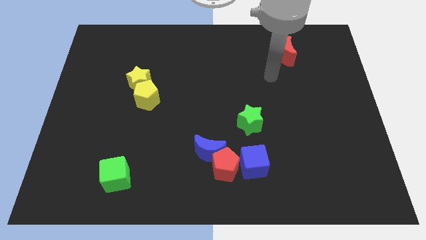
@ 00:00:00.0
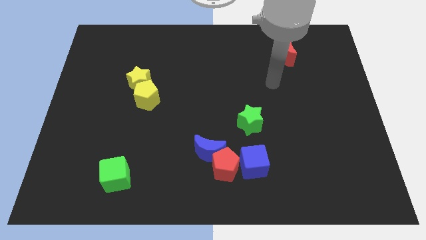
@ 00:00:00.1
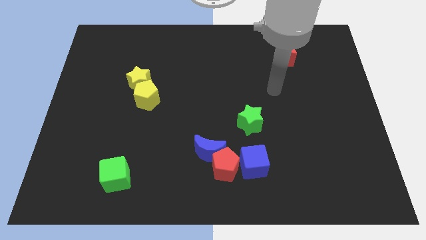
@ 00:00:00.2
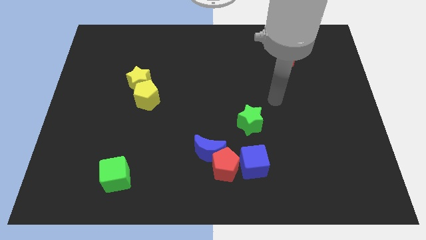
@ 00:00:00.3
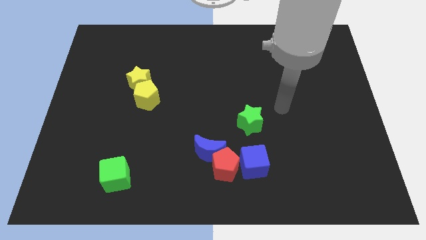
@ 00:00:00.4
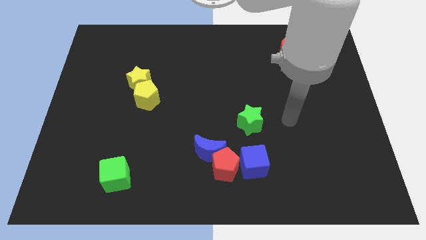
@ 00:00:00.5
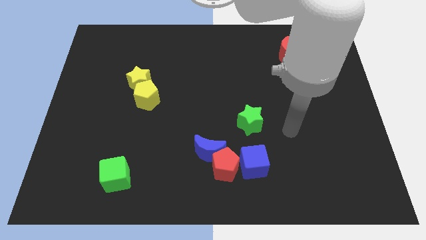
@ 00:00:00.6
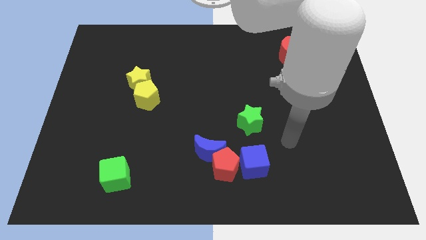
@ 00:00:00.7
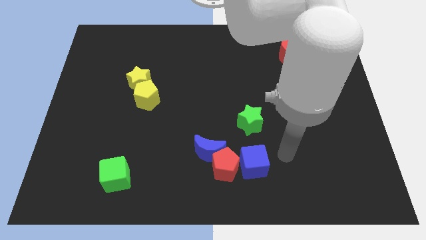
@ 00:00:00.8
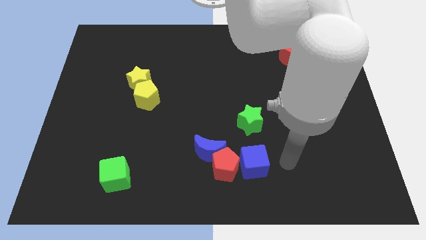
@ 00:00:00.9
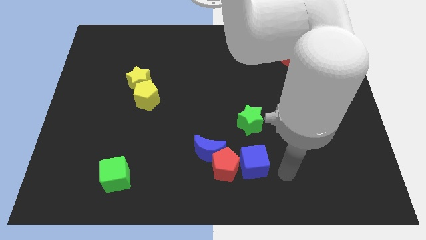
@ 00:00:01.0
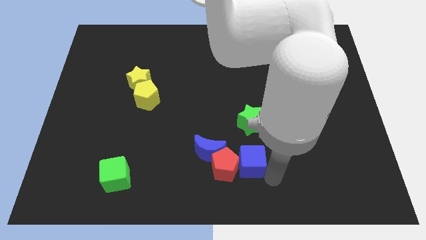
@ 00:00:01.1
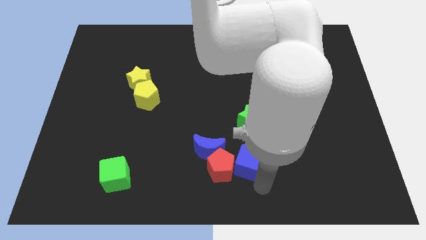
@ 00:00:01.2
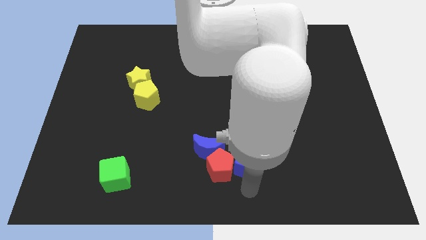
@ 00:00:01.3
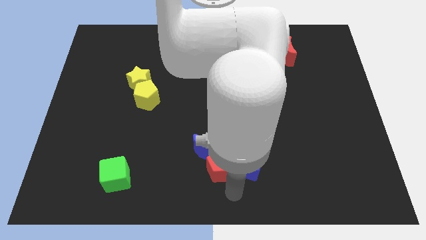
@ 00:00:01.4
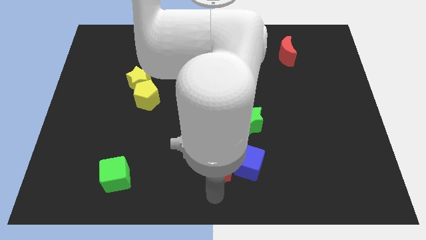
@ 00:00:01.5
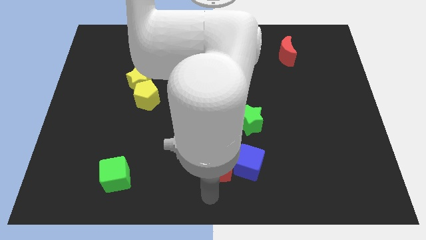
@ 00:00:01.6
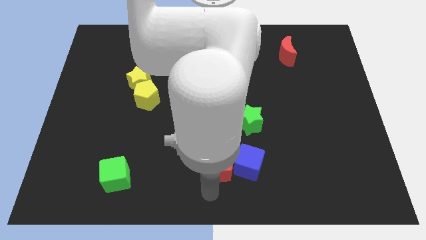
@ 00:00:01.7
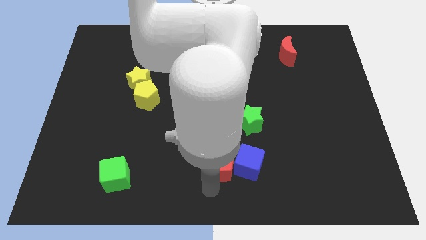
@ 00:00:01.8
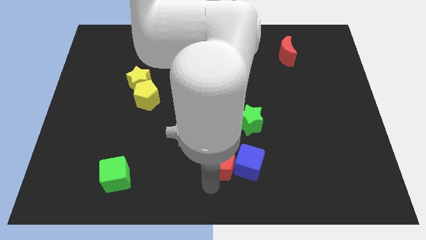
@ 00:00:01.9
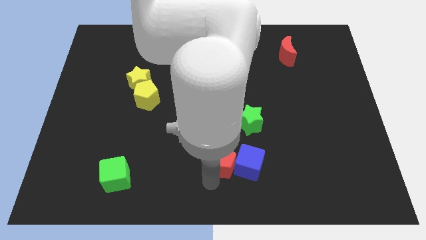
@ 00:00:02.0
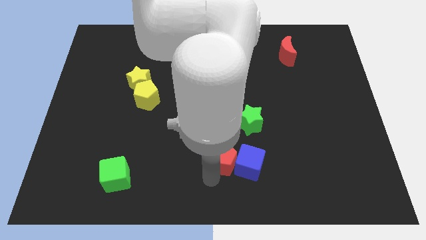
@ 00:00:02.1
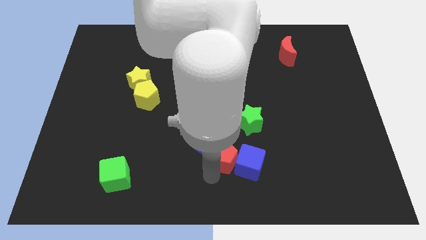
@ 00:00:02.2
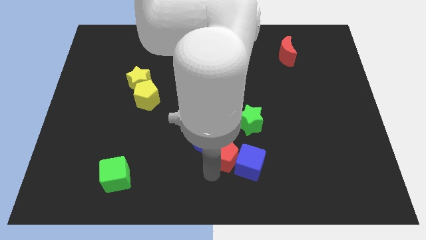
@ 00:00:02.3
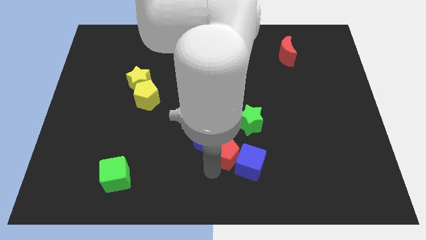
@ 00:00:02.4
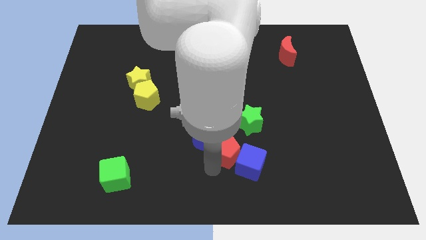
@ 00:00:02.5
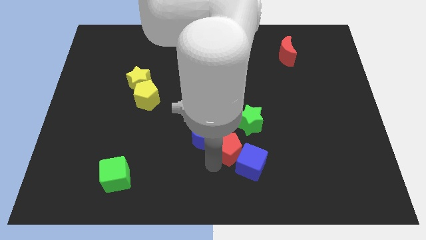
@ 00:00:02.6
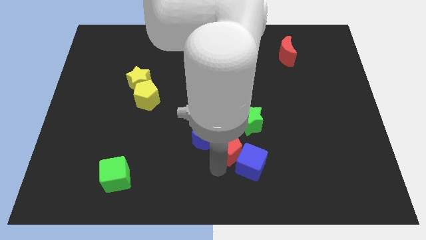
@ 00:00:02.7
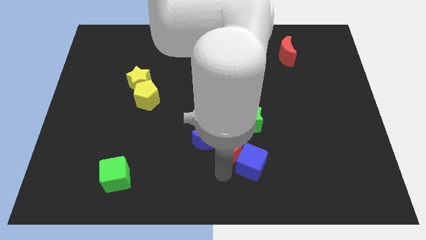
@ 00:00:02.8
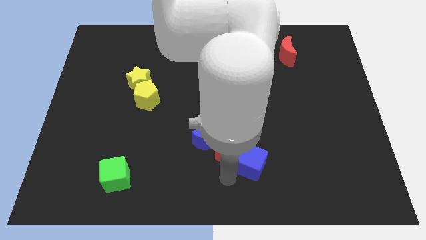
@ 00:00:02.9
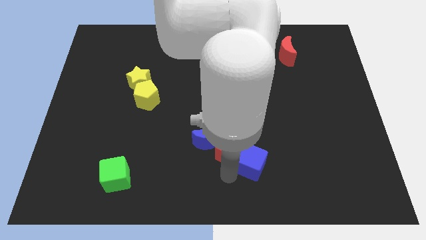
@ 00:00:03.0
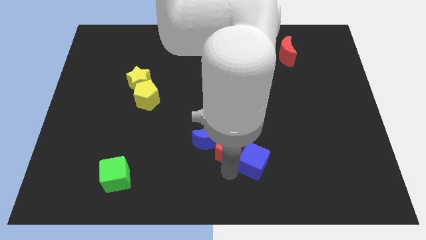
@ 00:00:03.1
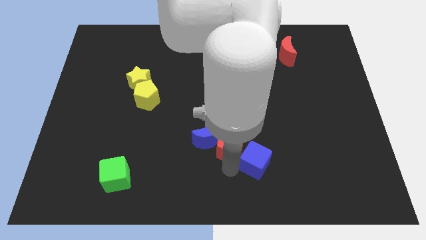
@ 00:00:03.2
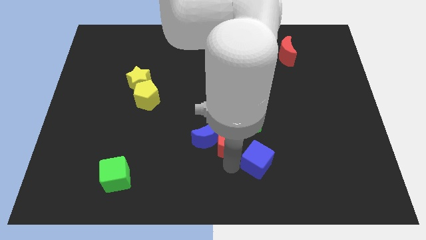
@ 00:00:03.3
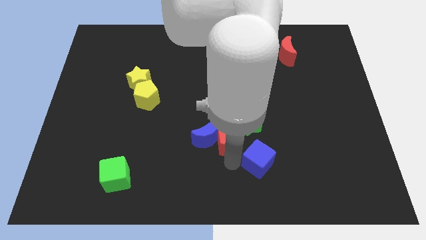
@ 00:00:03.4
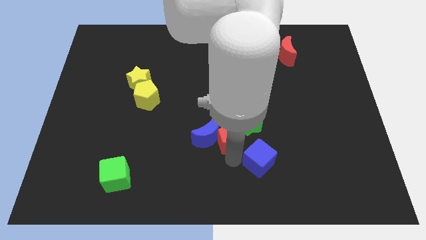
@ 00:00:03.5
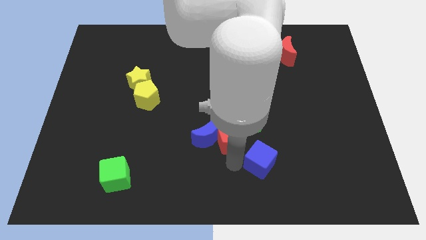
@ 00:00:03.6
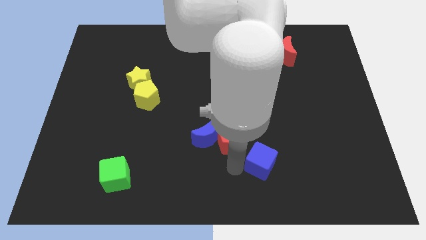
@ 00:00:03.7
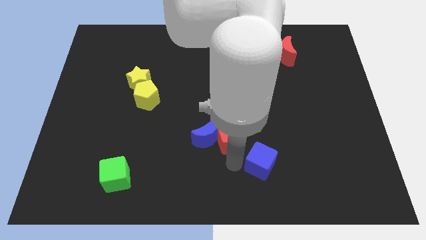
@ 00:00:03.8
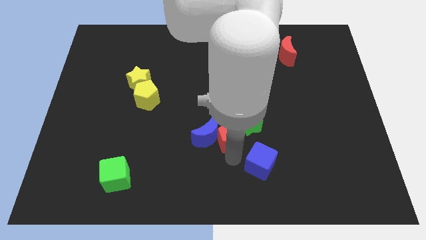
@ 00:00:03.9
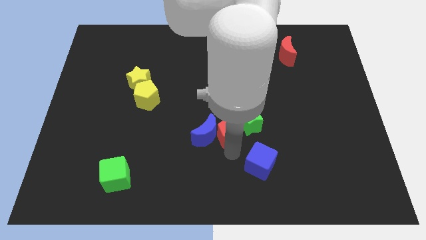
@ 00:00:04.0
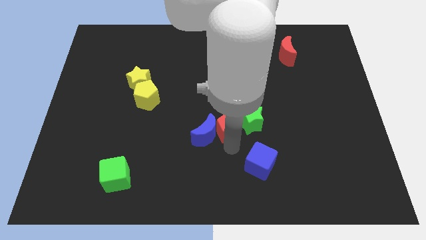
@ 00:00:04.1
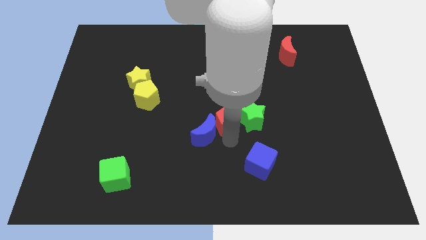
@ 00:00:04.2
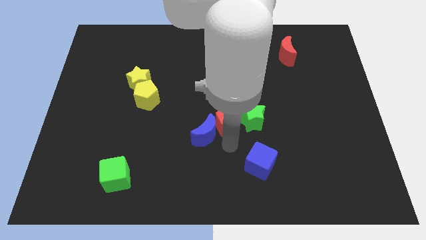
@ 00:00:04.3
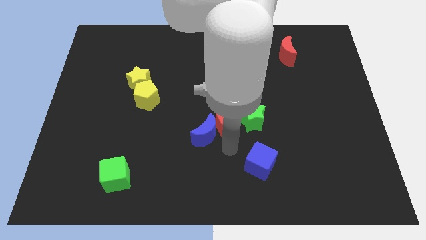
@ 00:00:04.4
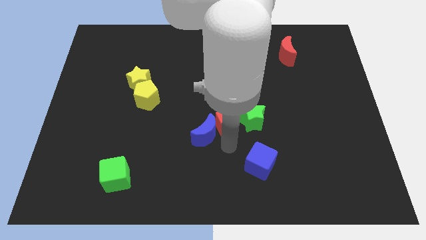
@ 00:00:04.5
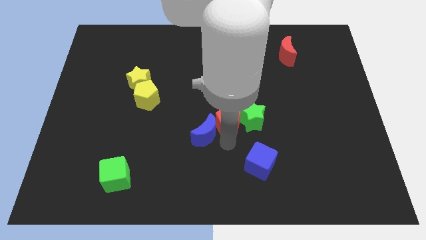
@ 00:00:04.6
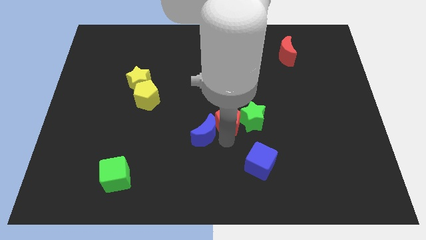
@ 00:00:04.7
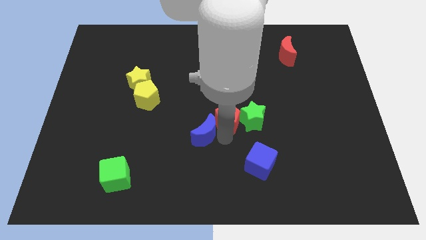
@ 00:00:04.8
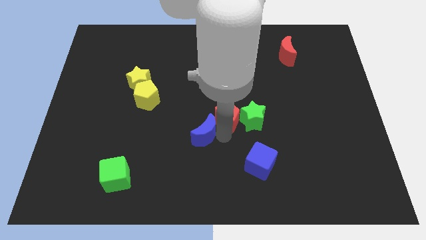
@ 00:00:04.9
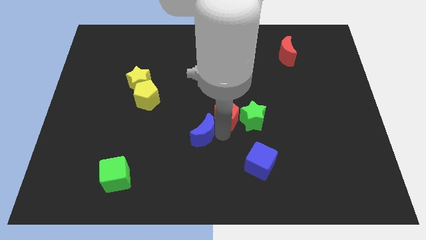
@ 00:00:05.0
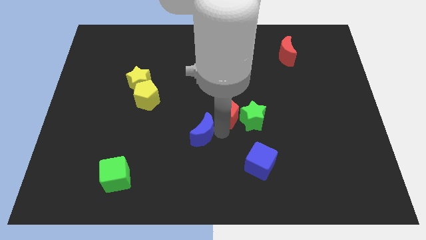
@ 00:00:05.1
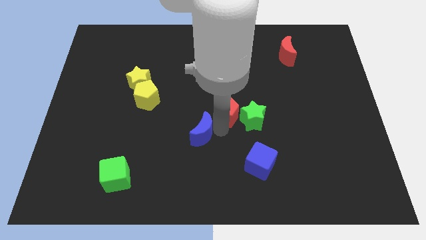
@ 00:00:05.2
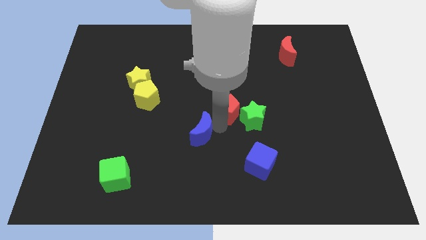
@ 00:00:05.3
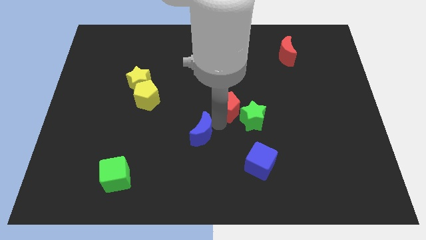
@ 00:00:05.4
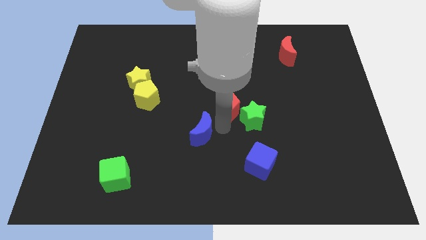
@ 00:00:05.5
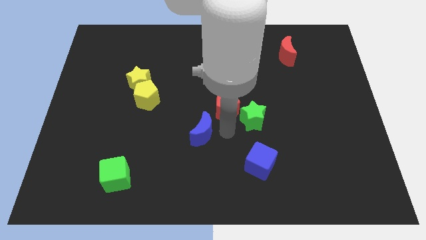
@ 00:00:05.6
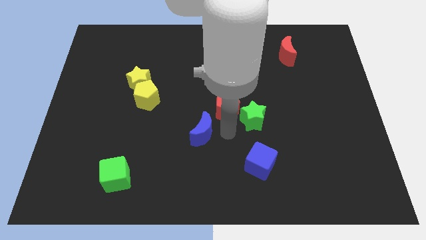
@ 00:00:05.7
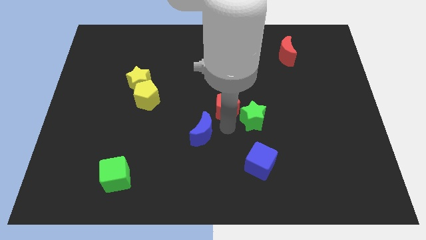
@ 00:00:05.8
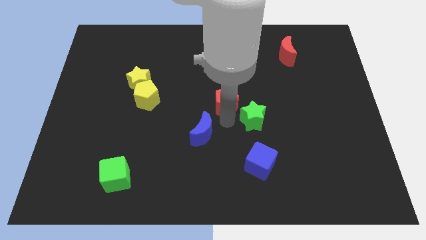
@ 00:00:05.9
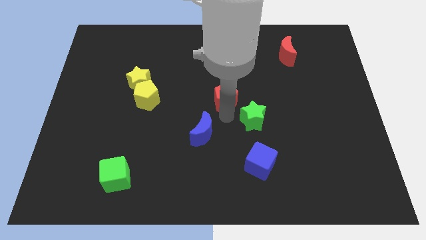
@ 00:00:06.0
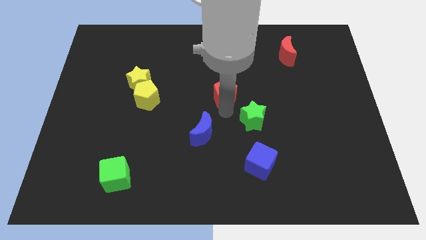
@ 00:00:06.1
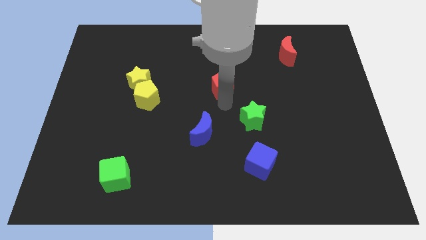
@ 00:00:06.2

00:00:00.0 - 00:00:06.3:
move the red pentagon upwards

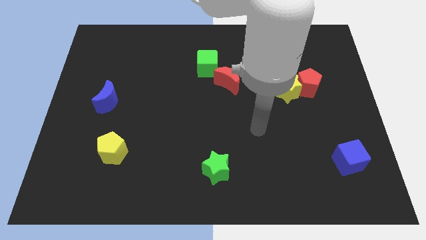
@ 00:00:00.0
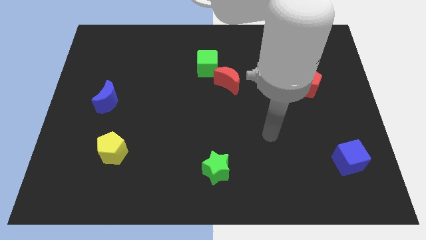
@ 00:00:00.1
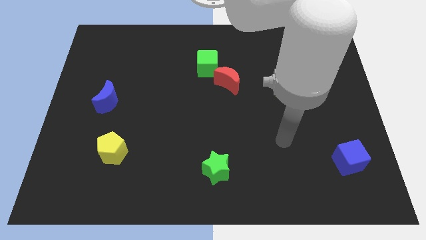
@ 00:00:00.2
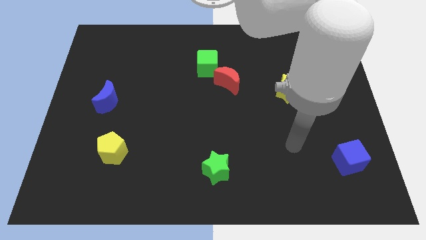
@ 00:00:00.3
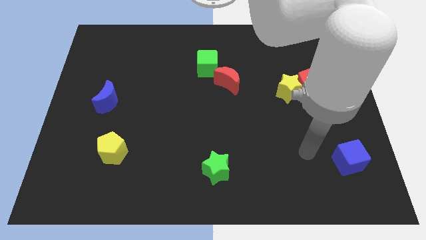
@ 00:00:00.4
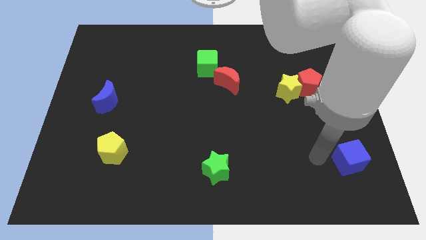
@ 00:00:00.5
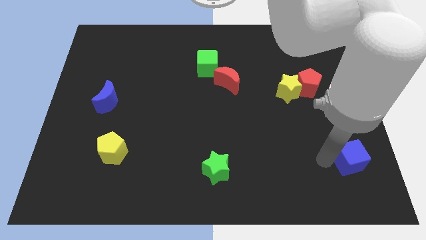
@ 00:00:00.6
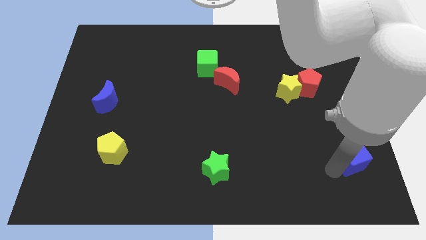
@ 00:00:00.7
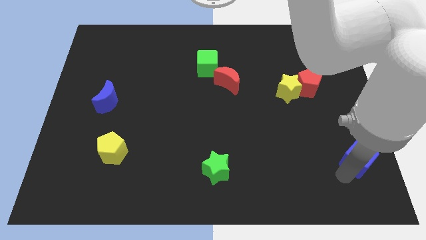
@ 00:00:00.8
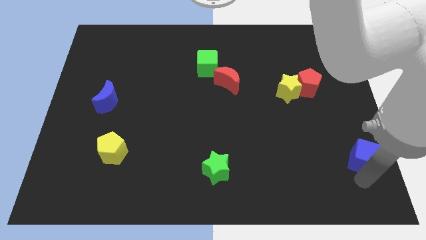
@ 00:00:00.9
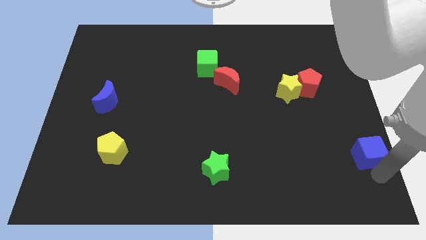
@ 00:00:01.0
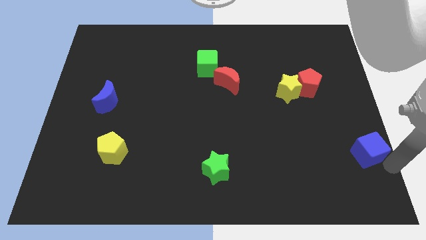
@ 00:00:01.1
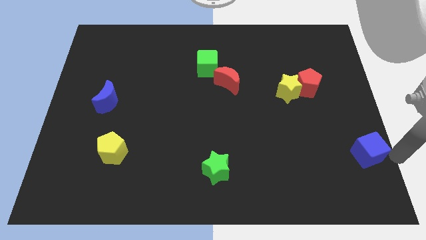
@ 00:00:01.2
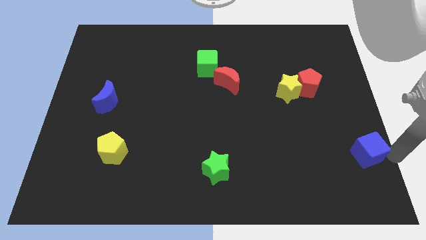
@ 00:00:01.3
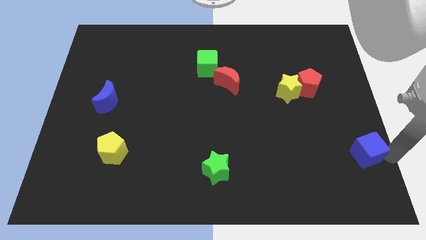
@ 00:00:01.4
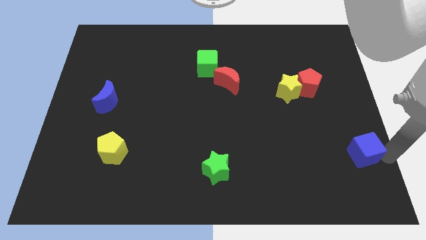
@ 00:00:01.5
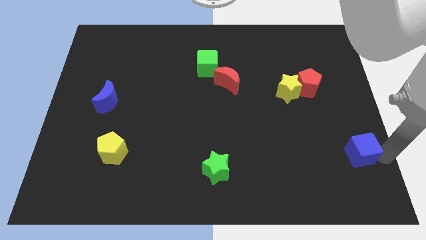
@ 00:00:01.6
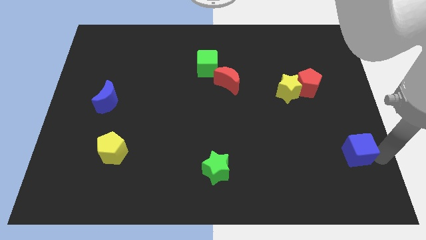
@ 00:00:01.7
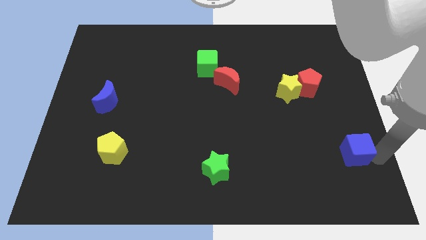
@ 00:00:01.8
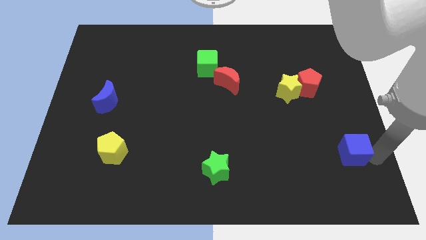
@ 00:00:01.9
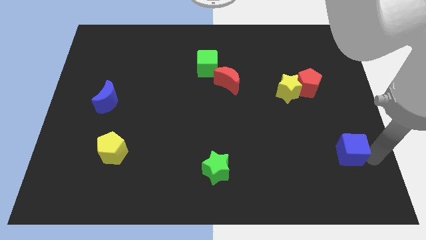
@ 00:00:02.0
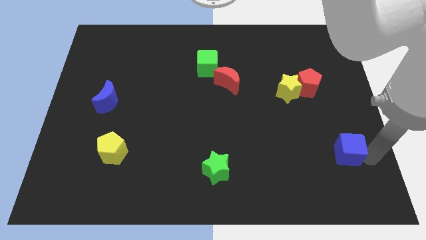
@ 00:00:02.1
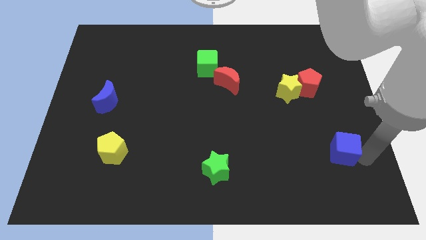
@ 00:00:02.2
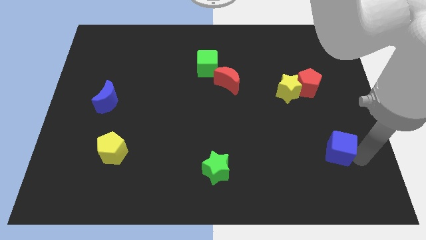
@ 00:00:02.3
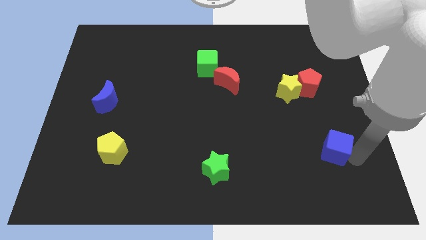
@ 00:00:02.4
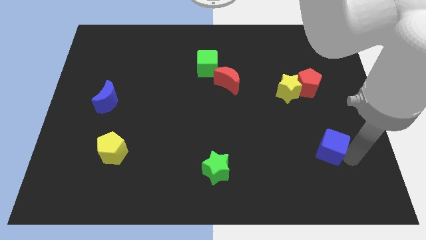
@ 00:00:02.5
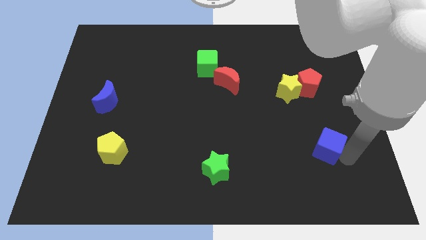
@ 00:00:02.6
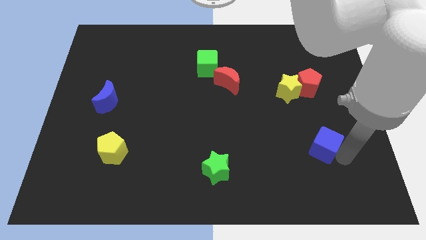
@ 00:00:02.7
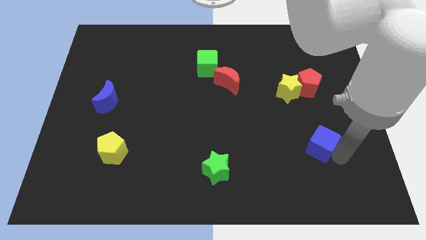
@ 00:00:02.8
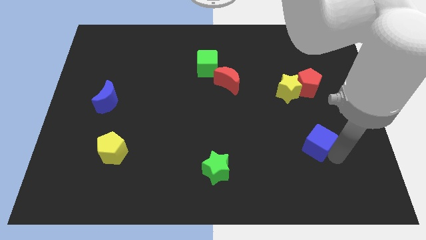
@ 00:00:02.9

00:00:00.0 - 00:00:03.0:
push the blue cube slightly up and left
